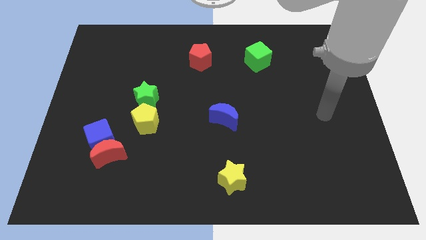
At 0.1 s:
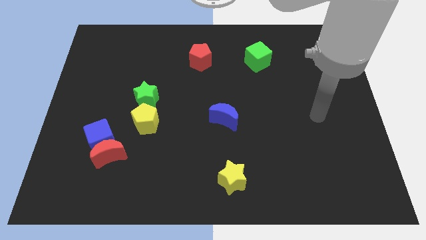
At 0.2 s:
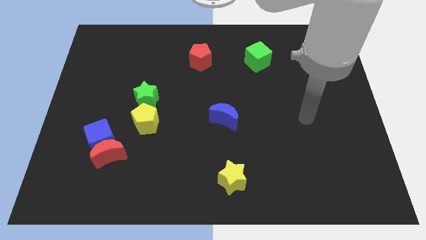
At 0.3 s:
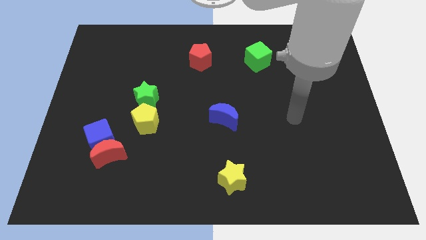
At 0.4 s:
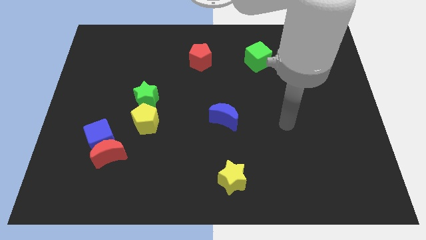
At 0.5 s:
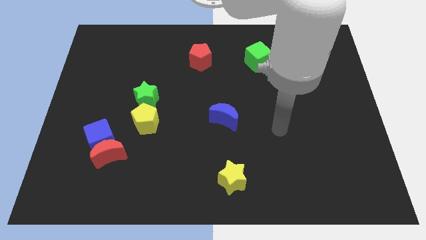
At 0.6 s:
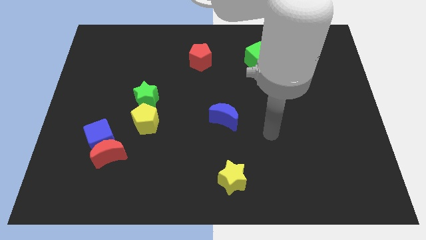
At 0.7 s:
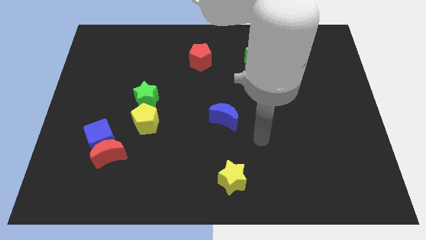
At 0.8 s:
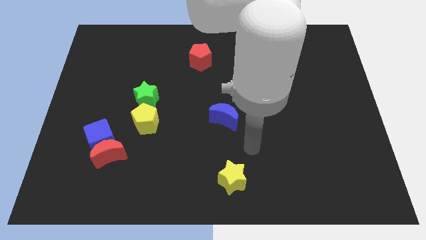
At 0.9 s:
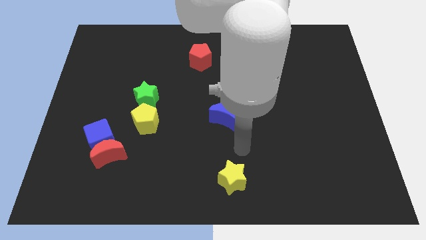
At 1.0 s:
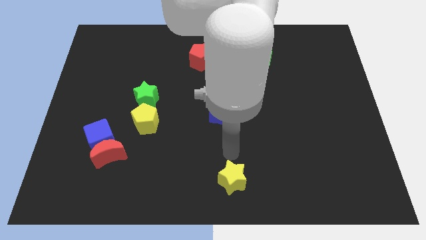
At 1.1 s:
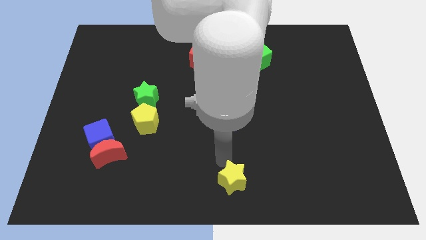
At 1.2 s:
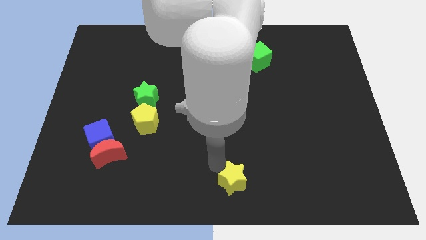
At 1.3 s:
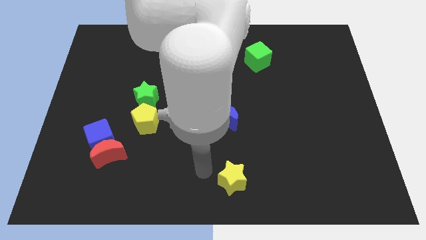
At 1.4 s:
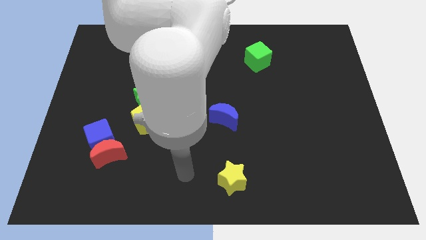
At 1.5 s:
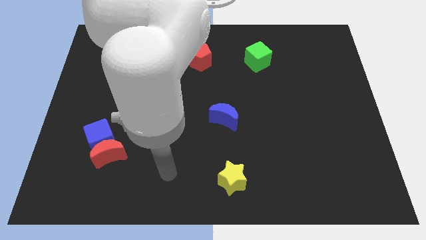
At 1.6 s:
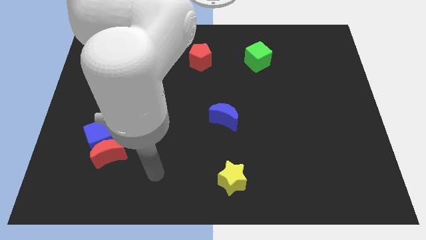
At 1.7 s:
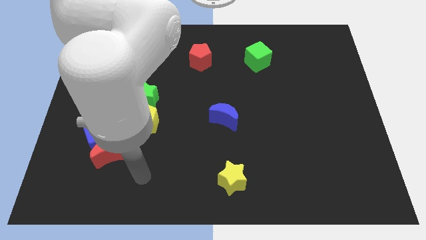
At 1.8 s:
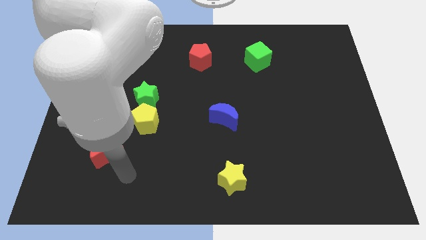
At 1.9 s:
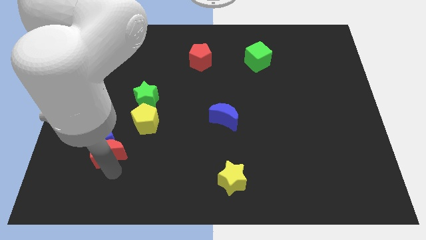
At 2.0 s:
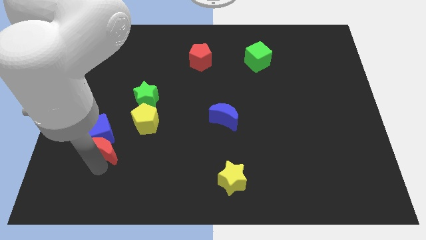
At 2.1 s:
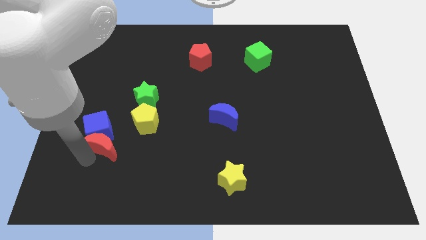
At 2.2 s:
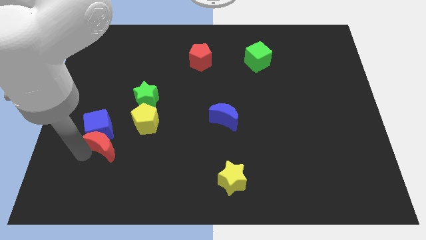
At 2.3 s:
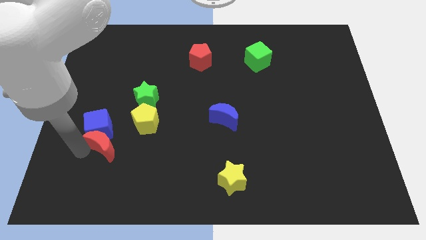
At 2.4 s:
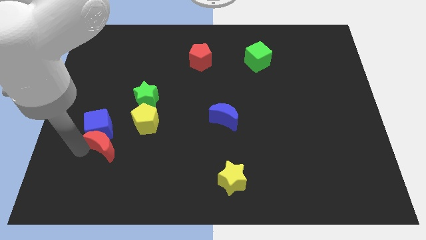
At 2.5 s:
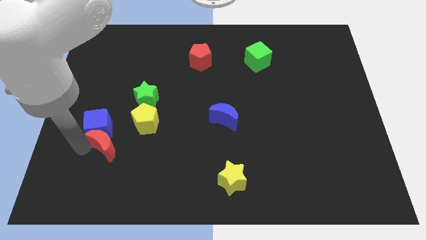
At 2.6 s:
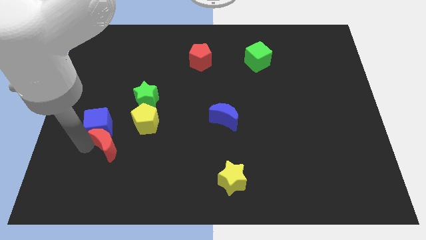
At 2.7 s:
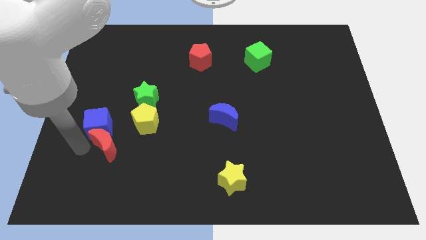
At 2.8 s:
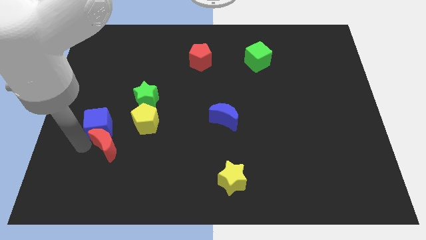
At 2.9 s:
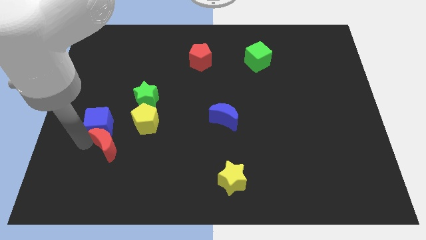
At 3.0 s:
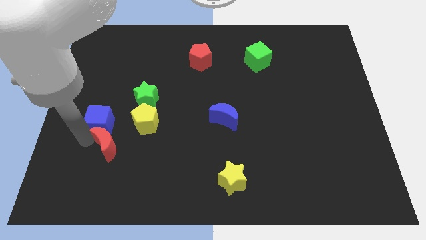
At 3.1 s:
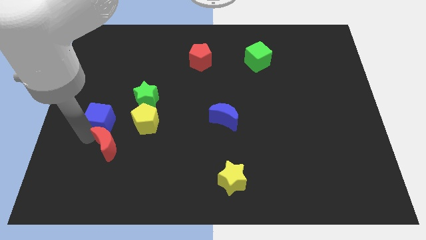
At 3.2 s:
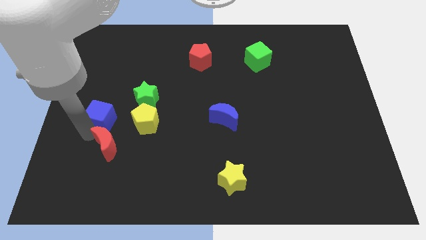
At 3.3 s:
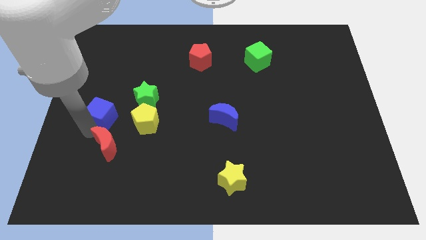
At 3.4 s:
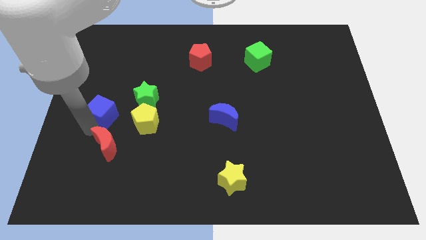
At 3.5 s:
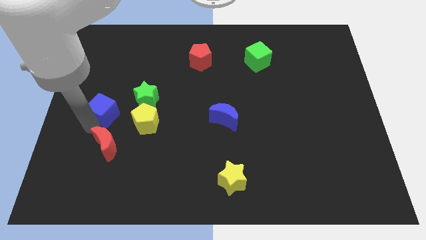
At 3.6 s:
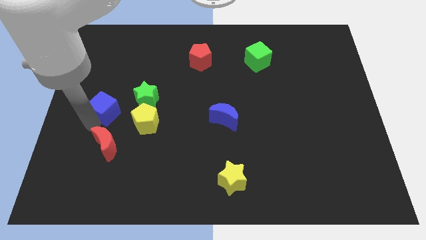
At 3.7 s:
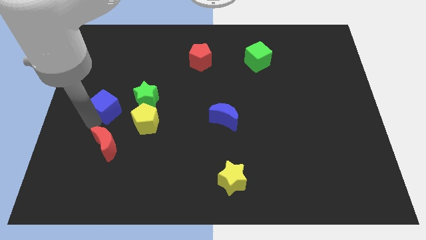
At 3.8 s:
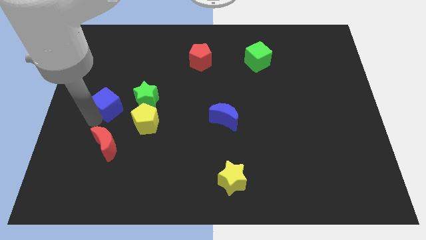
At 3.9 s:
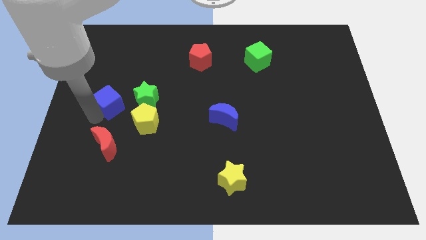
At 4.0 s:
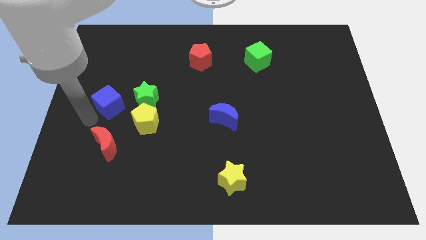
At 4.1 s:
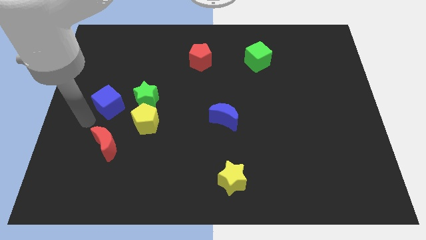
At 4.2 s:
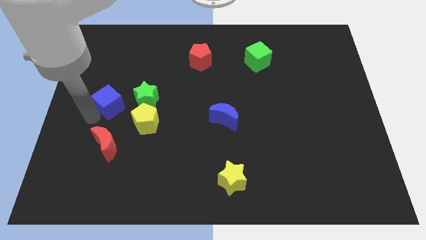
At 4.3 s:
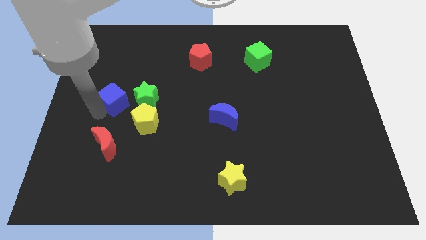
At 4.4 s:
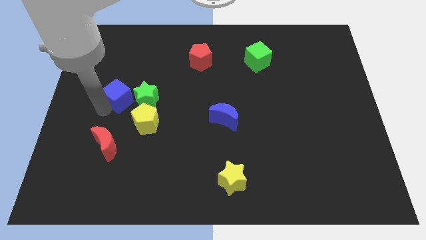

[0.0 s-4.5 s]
slightly slide the blue cube upwards and to the right

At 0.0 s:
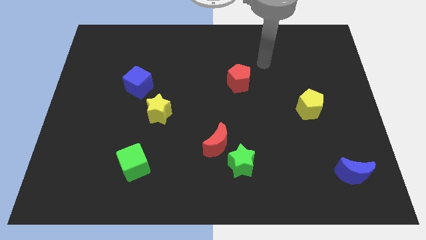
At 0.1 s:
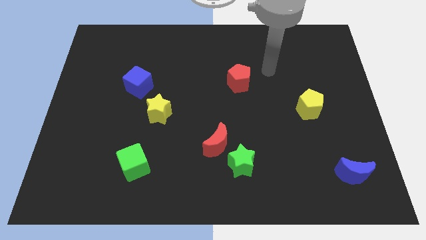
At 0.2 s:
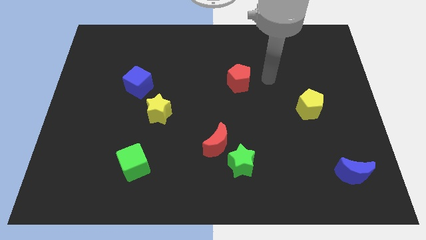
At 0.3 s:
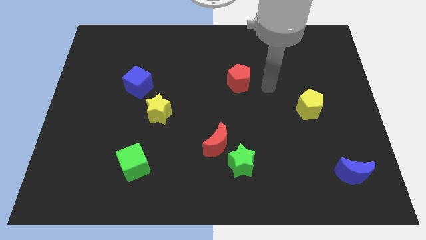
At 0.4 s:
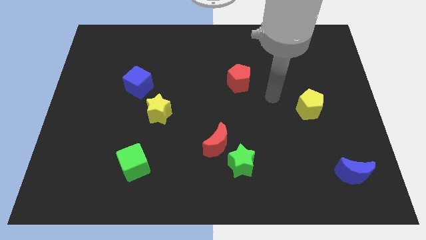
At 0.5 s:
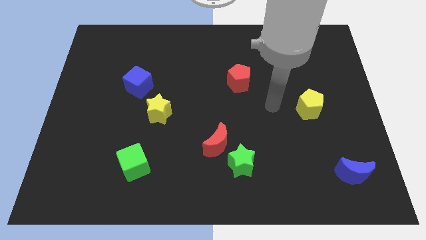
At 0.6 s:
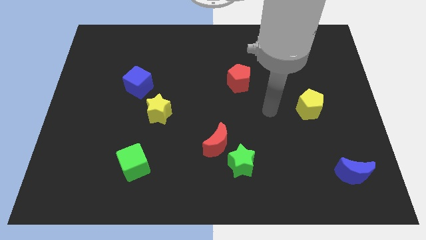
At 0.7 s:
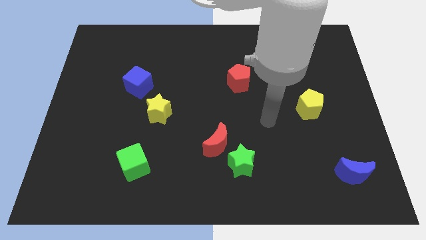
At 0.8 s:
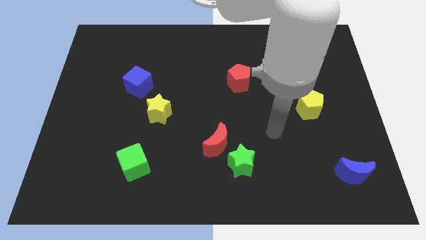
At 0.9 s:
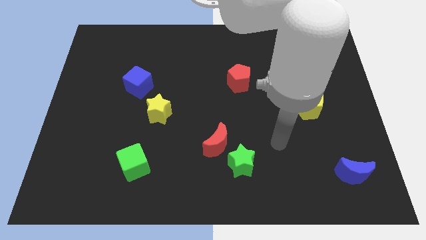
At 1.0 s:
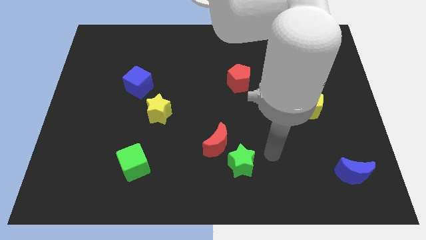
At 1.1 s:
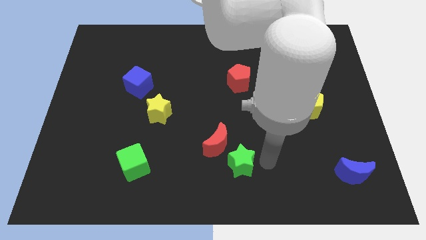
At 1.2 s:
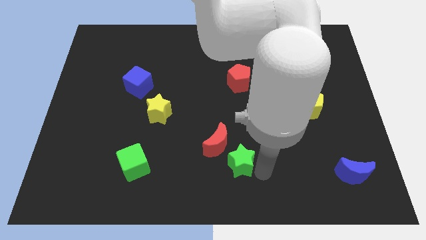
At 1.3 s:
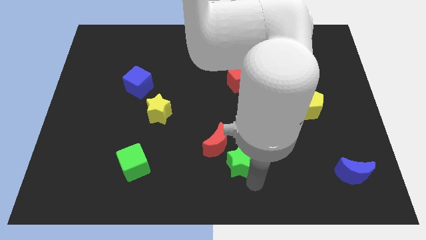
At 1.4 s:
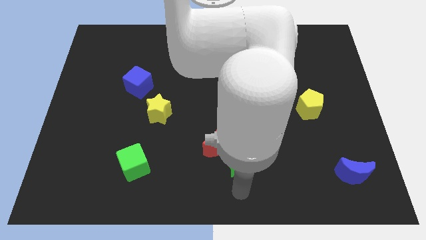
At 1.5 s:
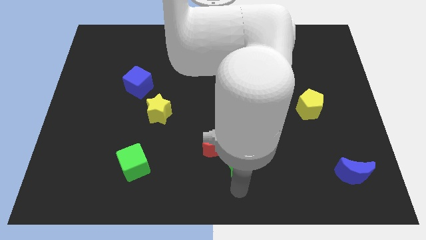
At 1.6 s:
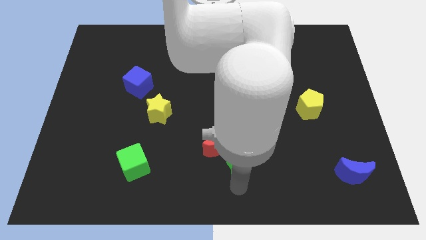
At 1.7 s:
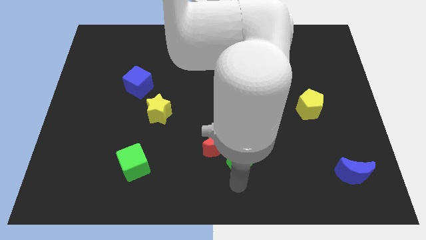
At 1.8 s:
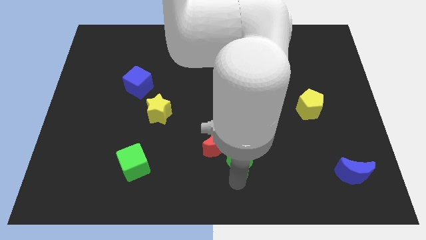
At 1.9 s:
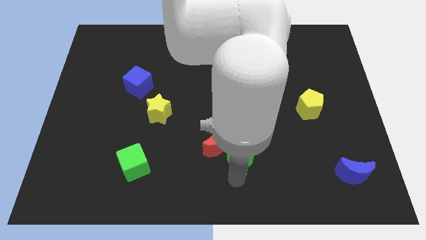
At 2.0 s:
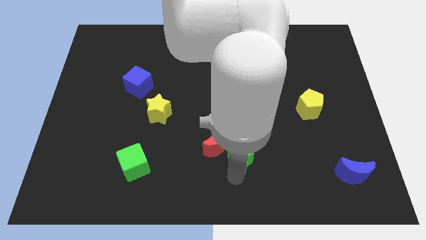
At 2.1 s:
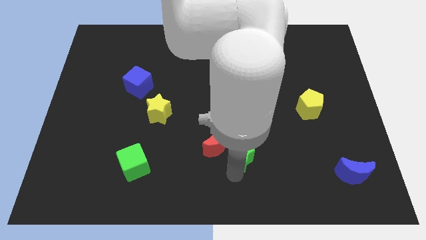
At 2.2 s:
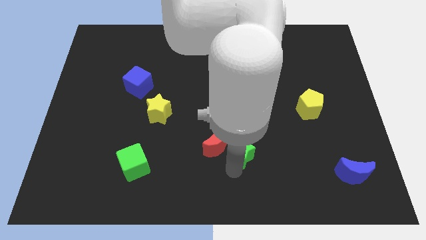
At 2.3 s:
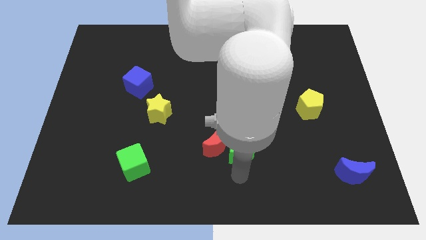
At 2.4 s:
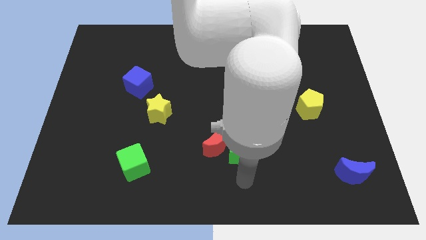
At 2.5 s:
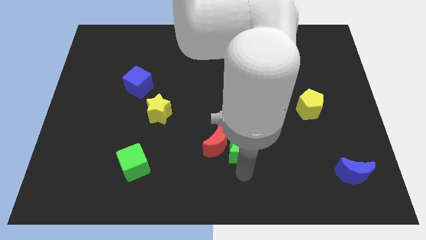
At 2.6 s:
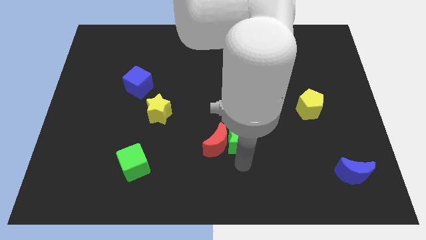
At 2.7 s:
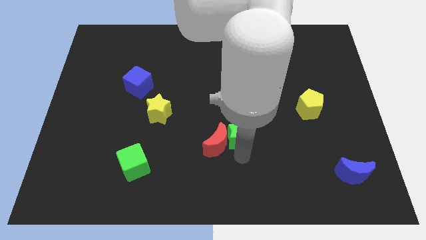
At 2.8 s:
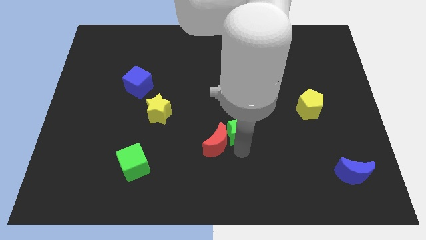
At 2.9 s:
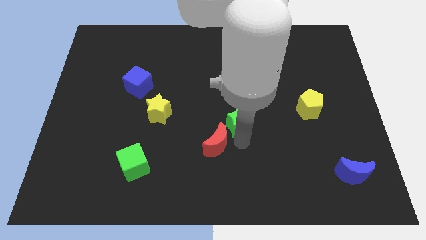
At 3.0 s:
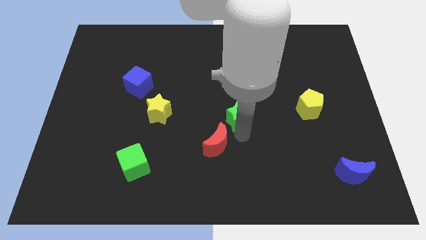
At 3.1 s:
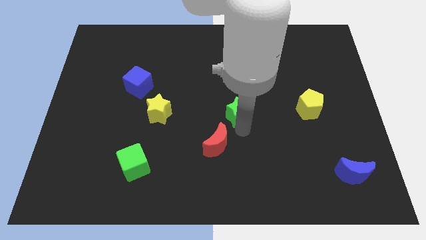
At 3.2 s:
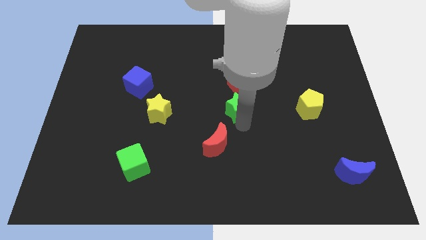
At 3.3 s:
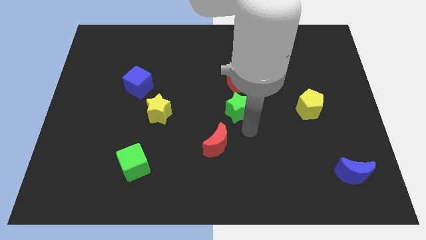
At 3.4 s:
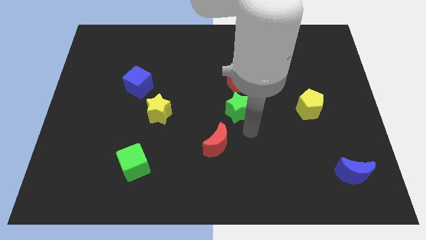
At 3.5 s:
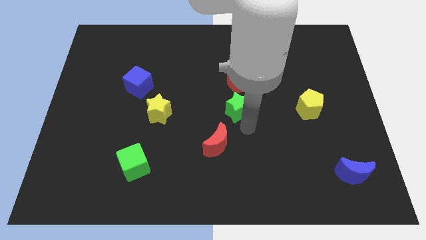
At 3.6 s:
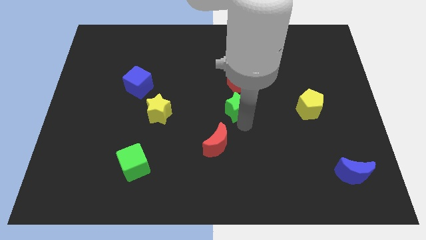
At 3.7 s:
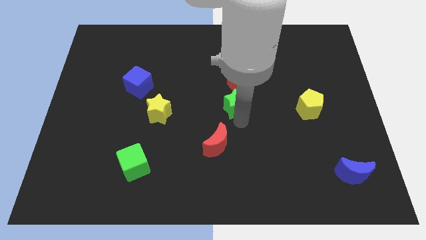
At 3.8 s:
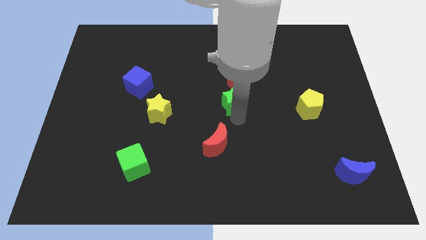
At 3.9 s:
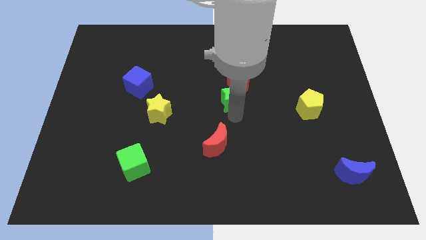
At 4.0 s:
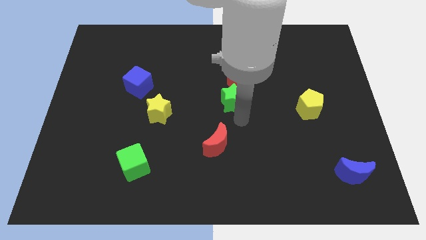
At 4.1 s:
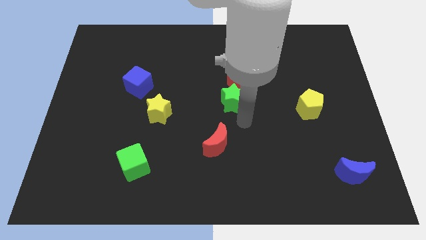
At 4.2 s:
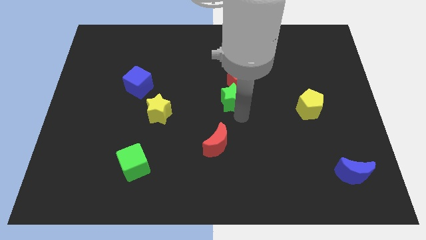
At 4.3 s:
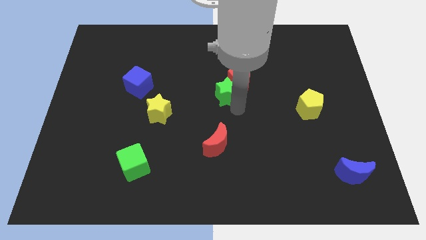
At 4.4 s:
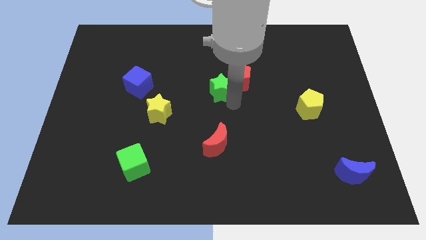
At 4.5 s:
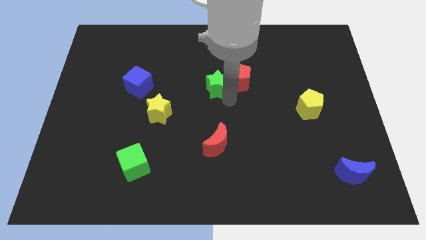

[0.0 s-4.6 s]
move the green star up
